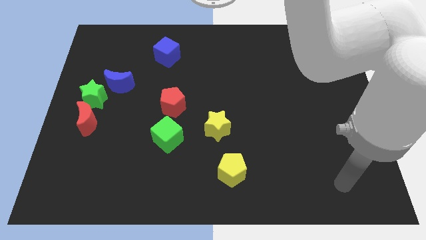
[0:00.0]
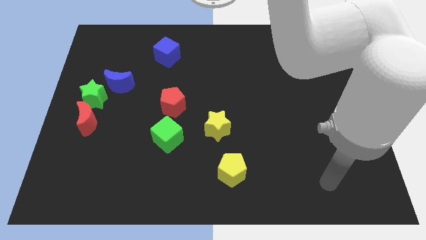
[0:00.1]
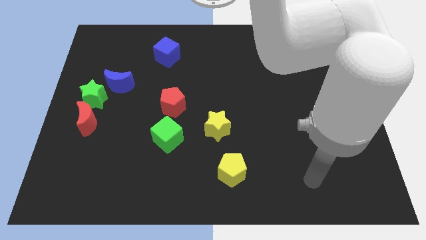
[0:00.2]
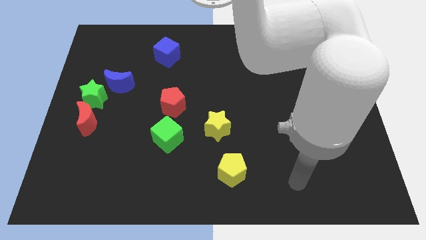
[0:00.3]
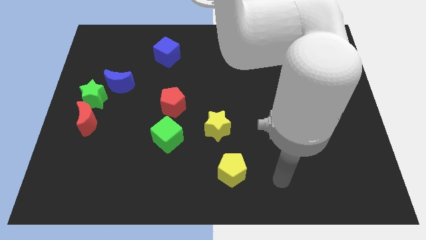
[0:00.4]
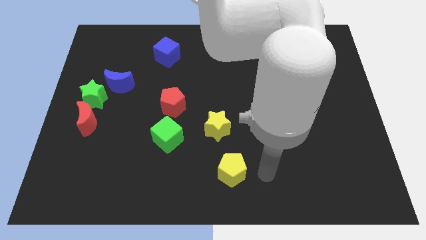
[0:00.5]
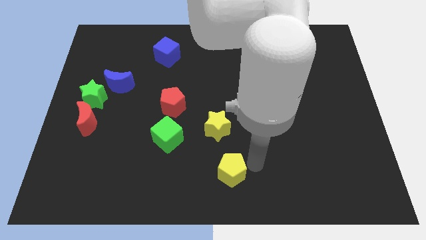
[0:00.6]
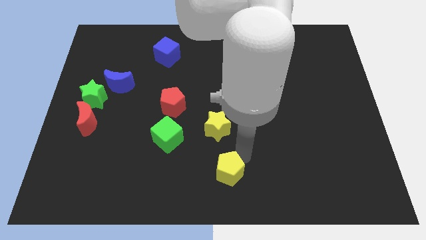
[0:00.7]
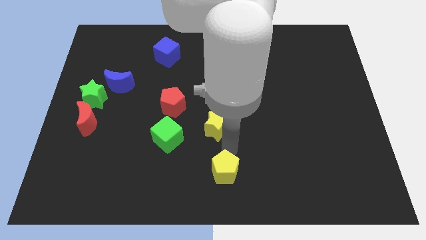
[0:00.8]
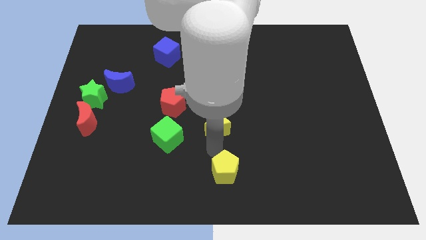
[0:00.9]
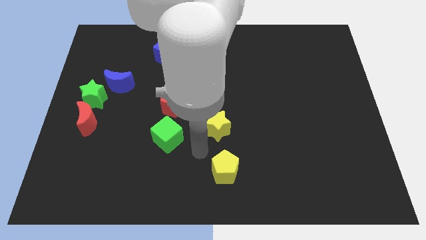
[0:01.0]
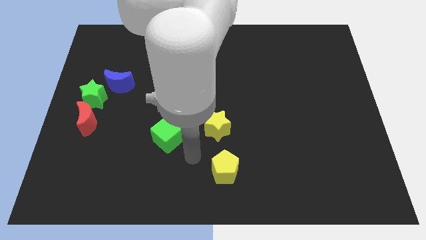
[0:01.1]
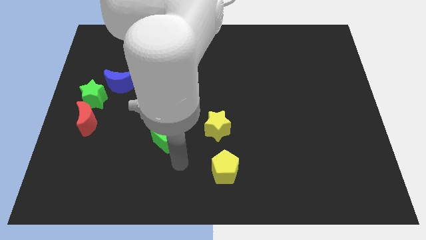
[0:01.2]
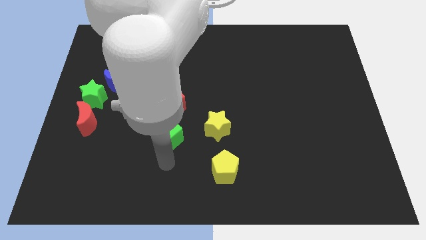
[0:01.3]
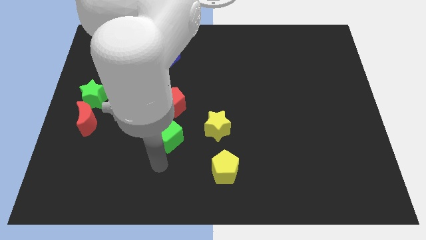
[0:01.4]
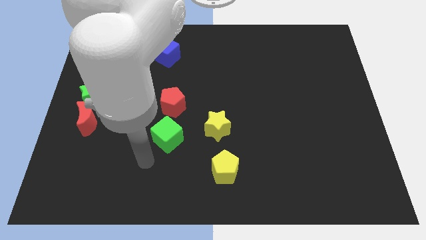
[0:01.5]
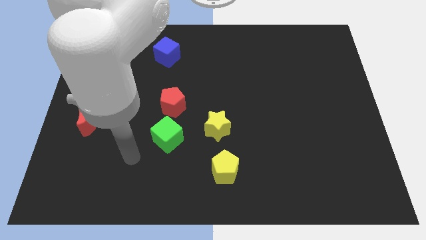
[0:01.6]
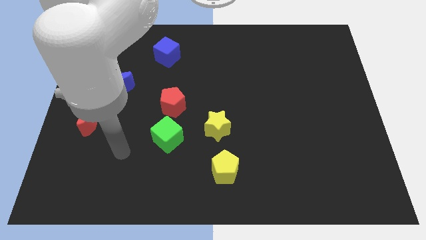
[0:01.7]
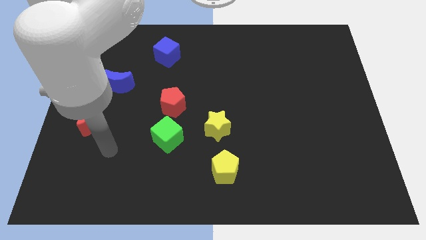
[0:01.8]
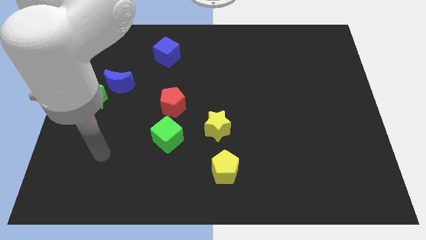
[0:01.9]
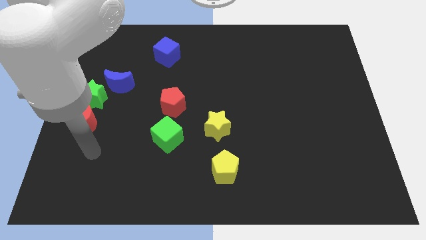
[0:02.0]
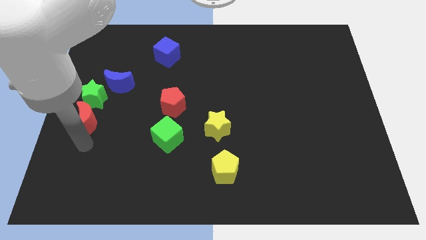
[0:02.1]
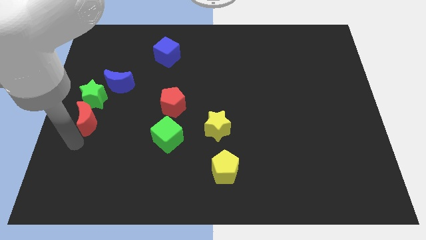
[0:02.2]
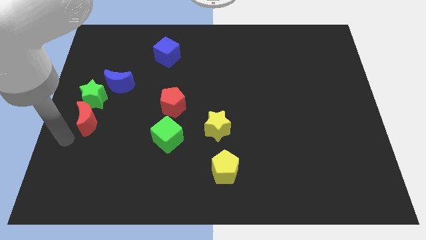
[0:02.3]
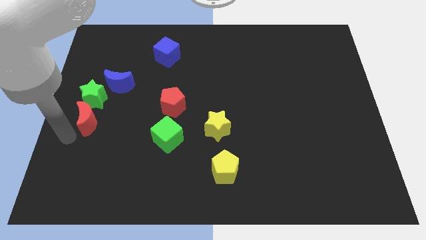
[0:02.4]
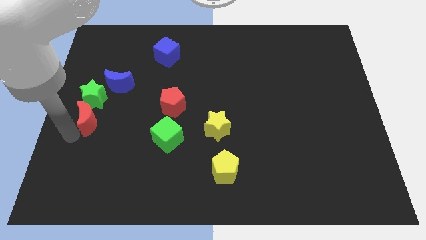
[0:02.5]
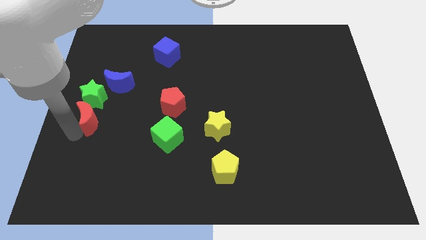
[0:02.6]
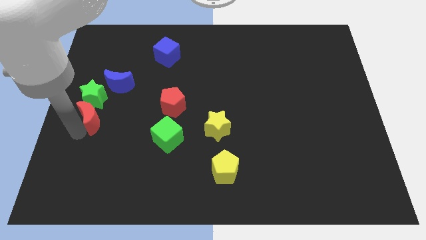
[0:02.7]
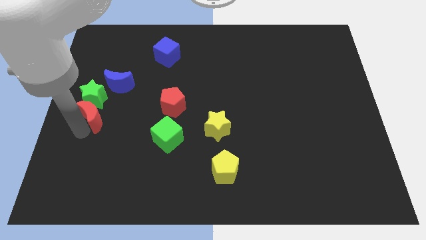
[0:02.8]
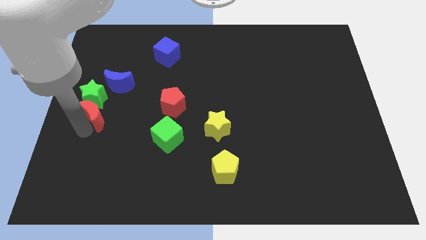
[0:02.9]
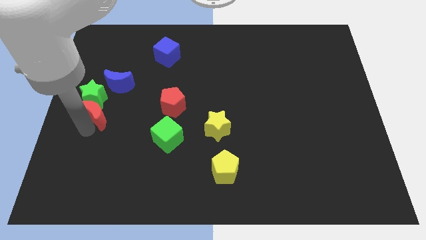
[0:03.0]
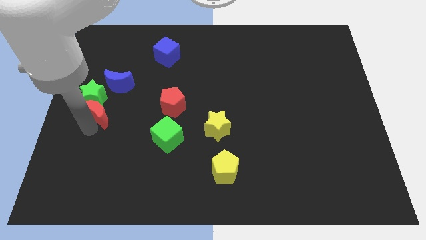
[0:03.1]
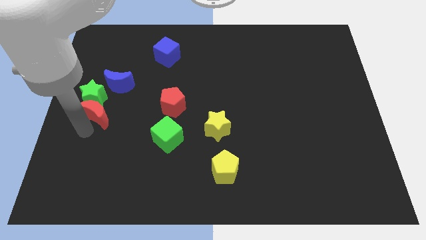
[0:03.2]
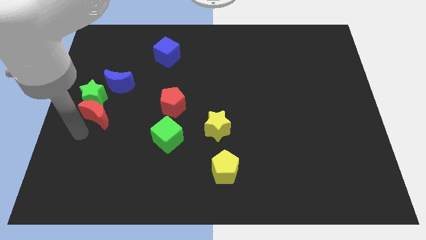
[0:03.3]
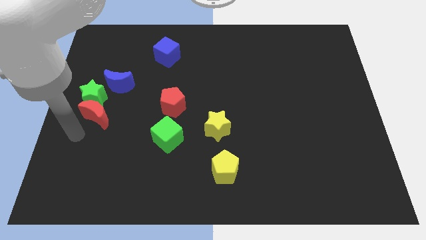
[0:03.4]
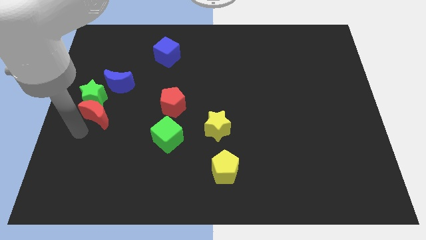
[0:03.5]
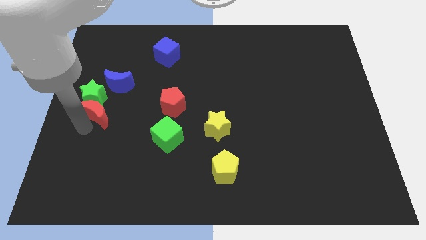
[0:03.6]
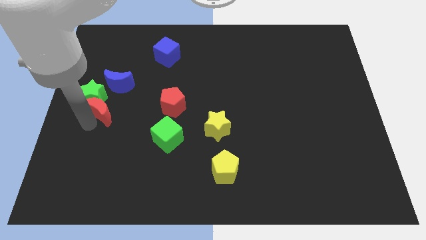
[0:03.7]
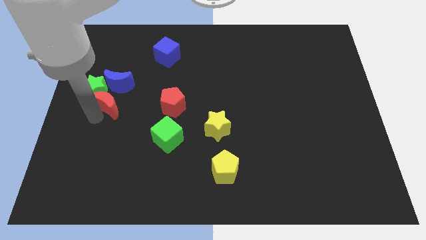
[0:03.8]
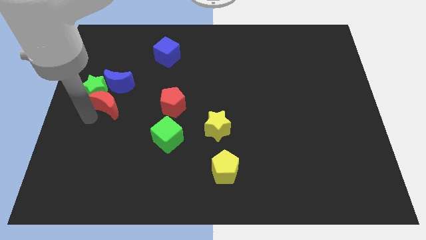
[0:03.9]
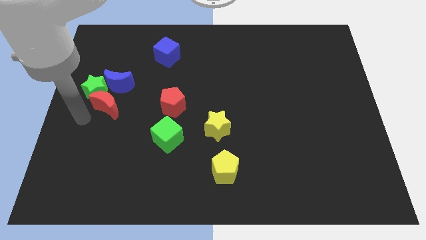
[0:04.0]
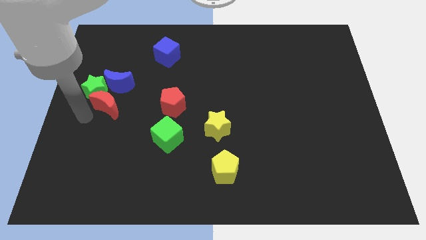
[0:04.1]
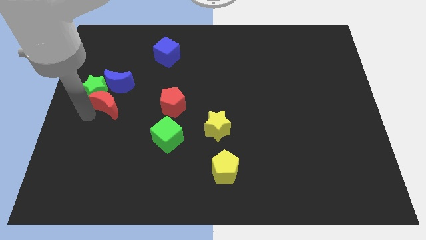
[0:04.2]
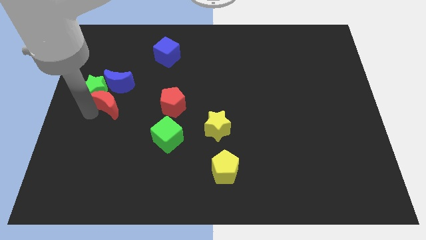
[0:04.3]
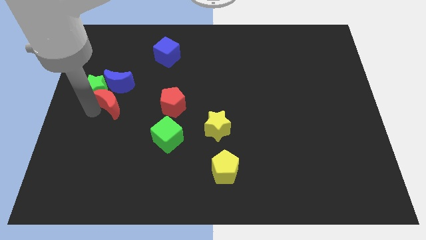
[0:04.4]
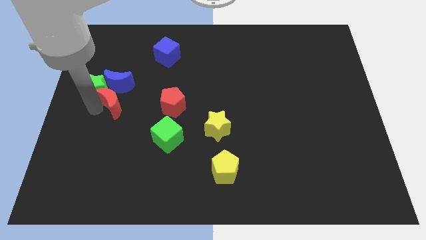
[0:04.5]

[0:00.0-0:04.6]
slide the red moon diagonally up and to the right a bit

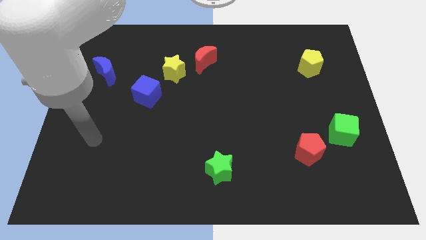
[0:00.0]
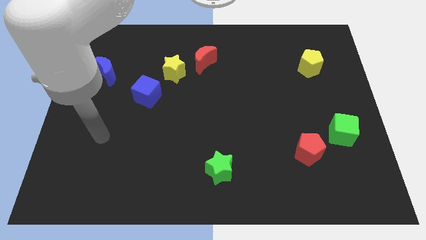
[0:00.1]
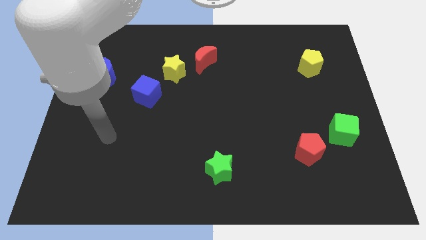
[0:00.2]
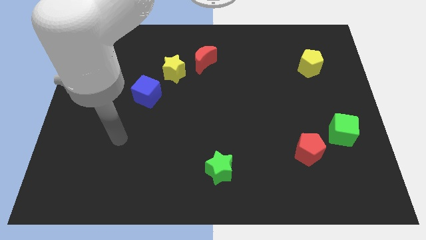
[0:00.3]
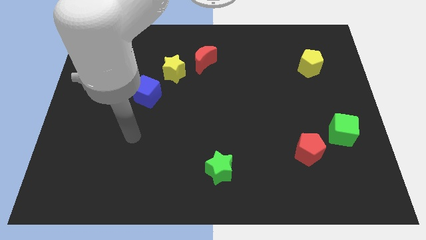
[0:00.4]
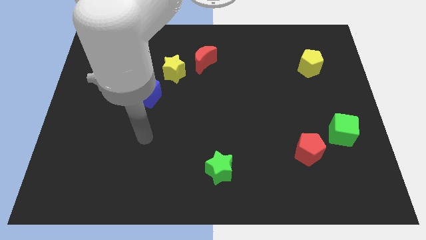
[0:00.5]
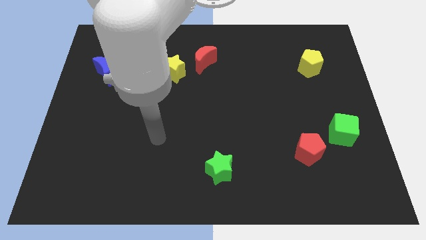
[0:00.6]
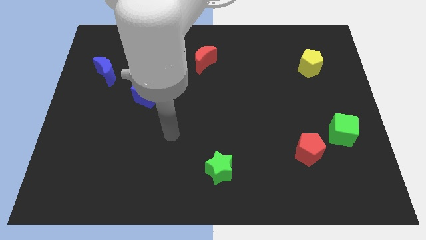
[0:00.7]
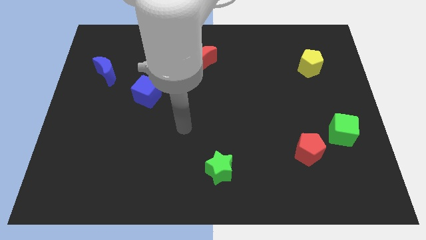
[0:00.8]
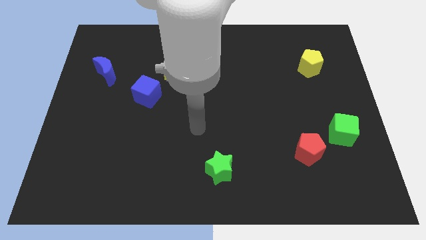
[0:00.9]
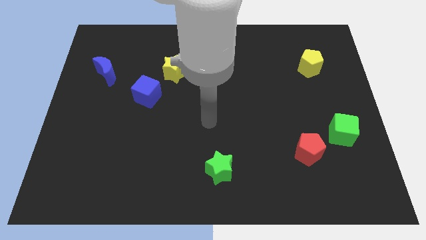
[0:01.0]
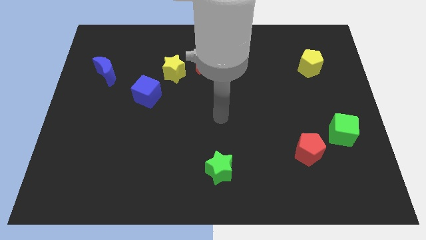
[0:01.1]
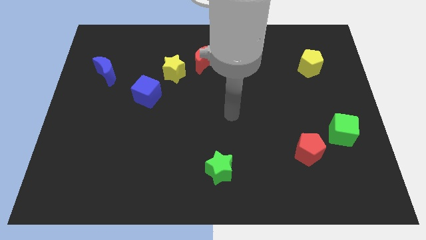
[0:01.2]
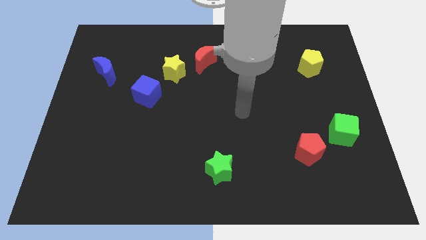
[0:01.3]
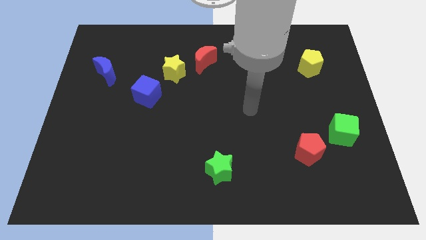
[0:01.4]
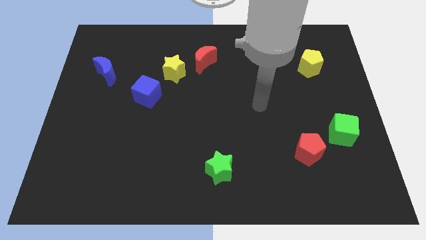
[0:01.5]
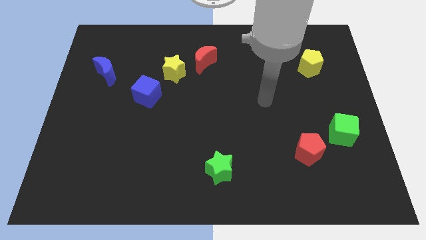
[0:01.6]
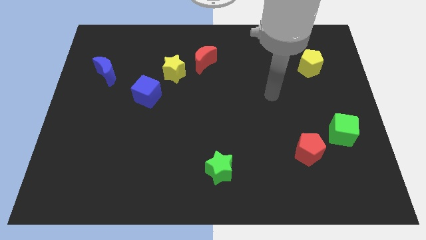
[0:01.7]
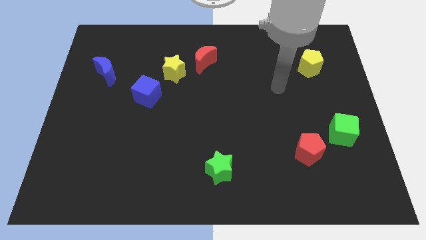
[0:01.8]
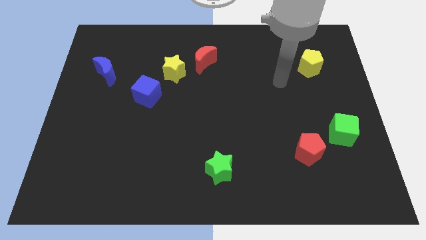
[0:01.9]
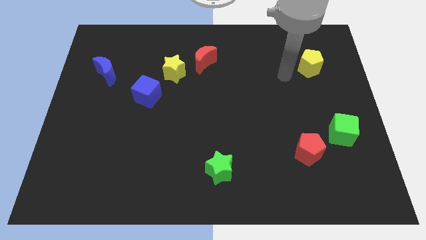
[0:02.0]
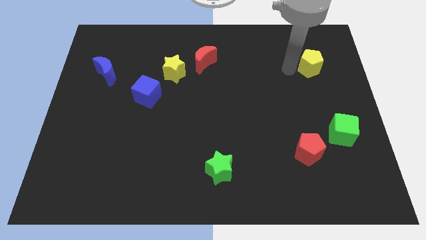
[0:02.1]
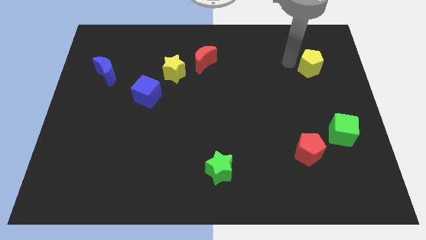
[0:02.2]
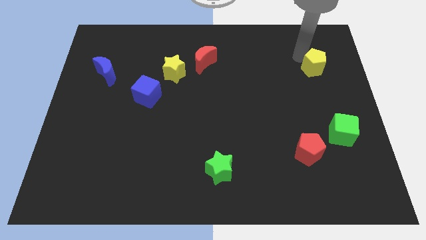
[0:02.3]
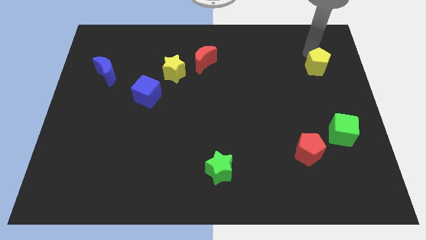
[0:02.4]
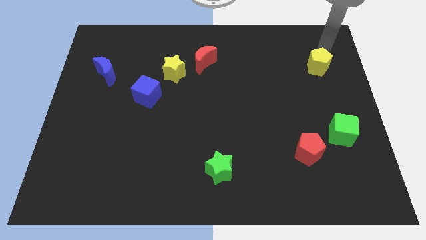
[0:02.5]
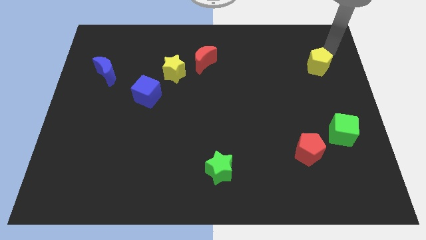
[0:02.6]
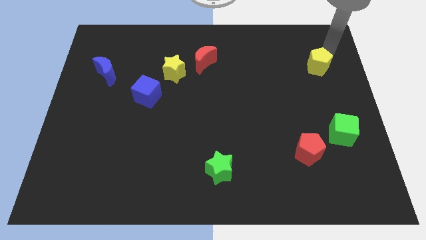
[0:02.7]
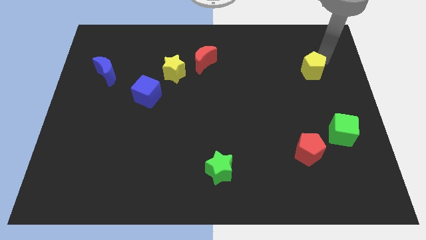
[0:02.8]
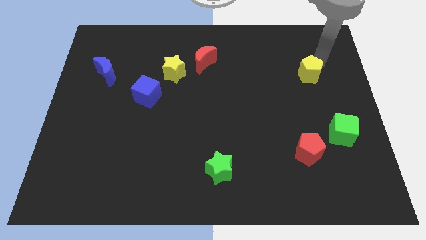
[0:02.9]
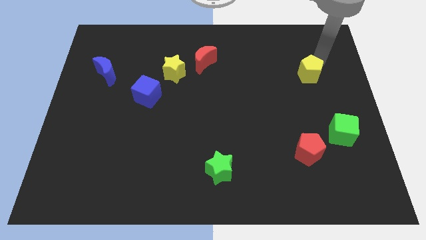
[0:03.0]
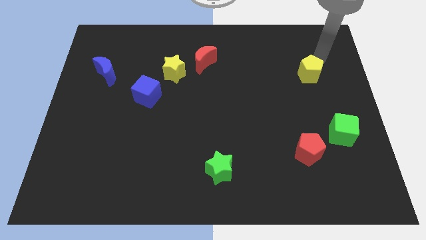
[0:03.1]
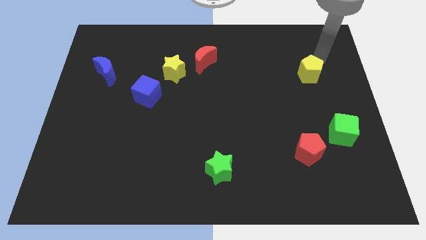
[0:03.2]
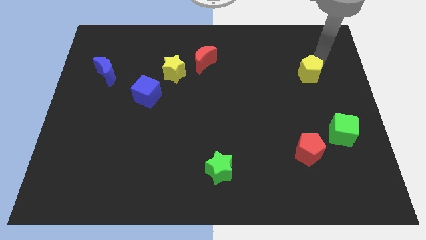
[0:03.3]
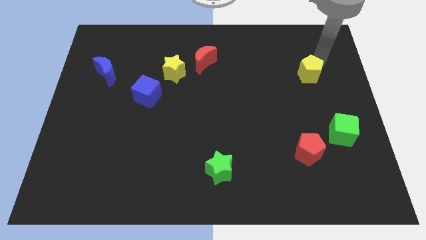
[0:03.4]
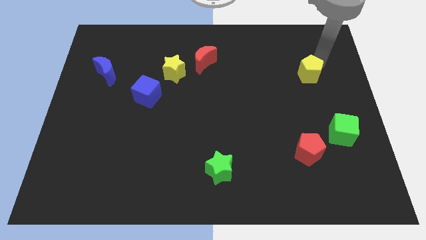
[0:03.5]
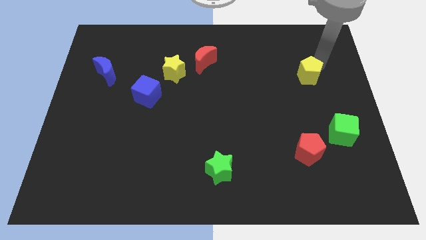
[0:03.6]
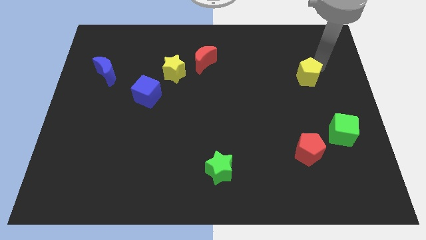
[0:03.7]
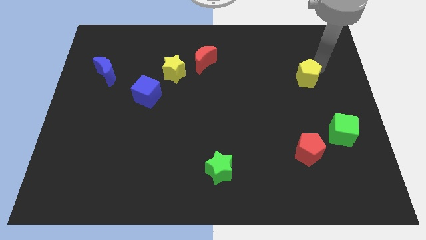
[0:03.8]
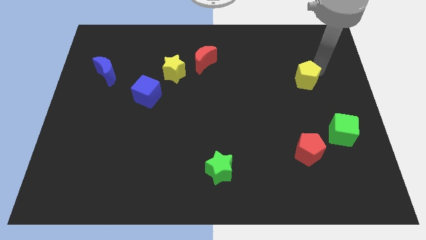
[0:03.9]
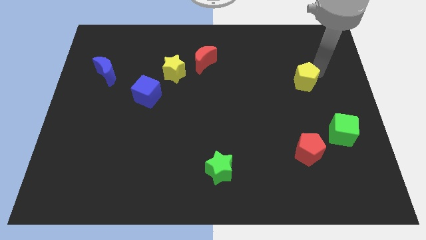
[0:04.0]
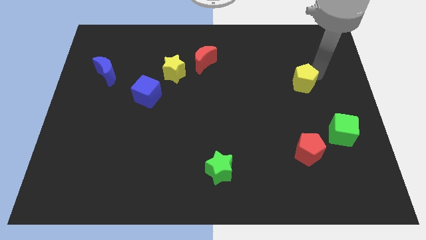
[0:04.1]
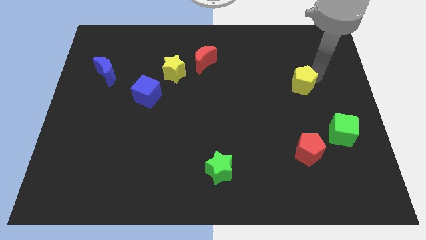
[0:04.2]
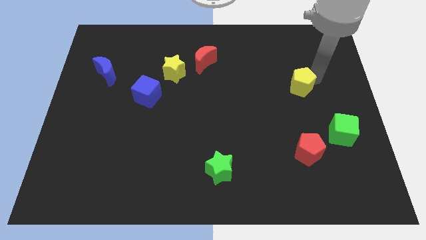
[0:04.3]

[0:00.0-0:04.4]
move the yellow pentagon downwards and left diagonally a bit
